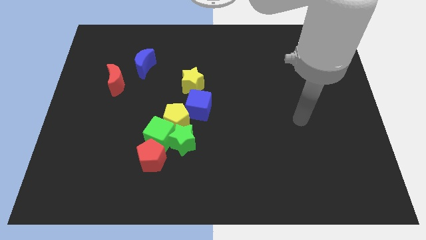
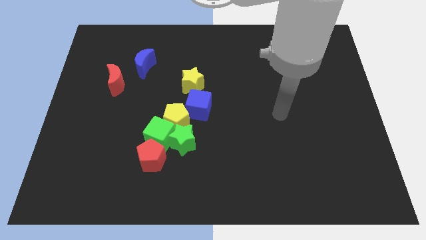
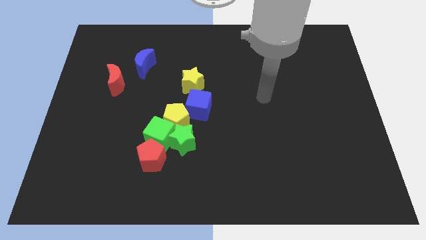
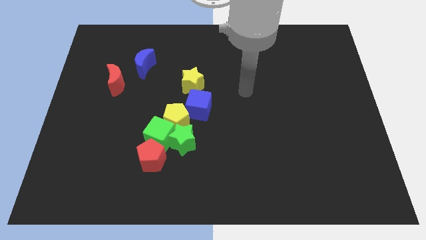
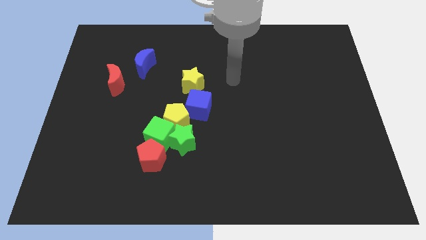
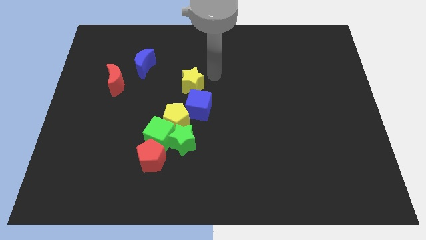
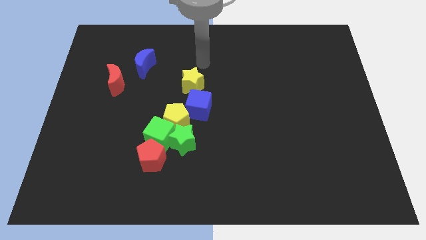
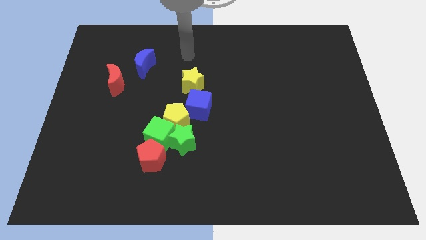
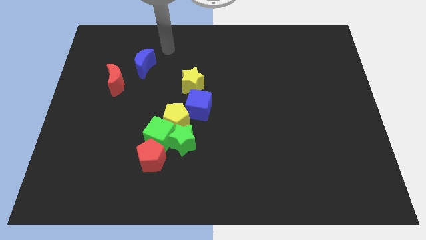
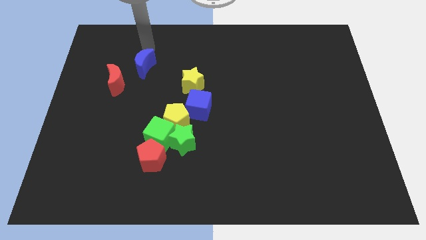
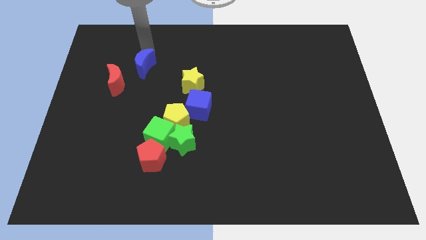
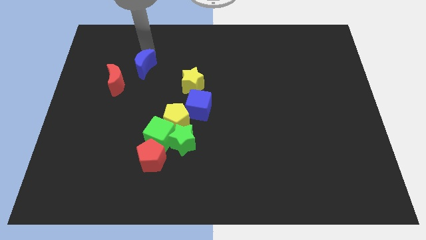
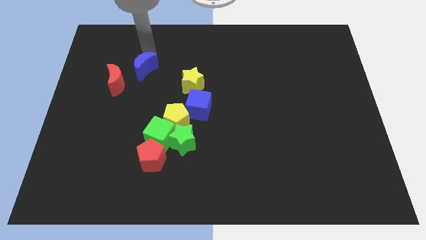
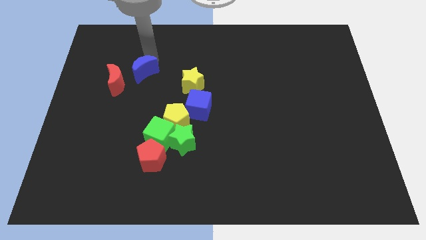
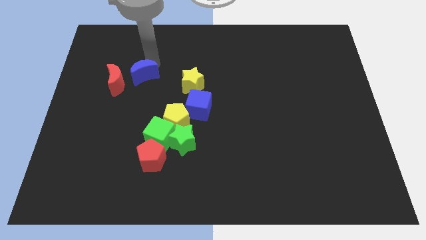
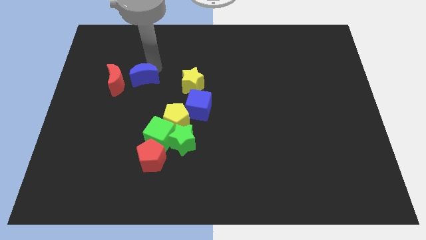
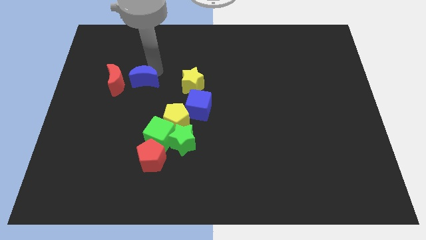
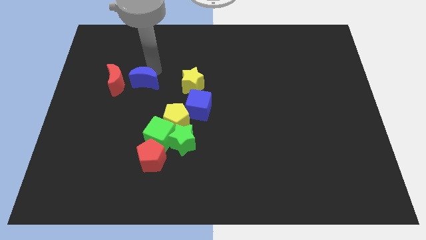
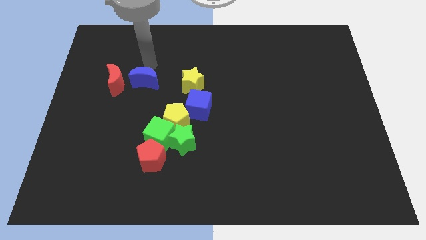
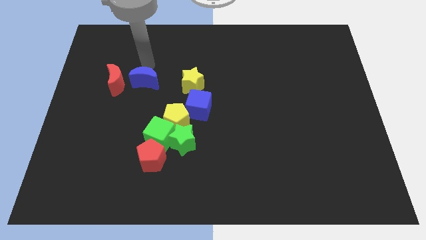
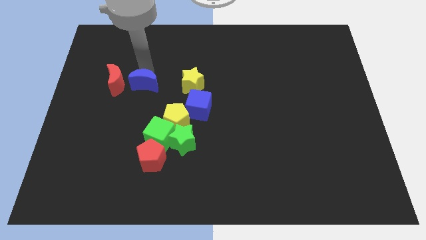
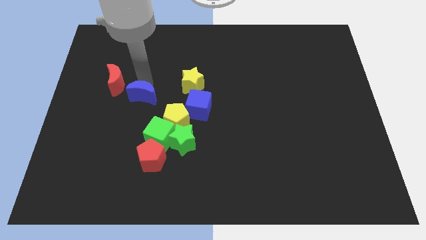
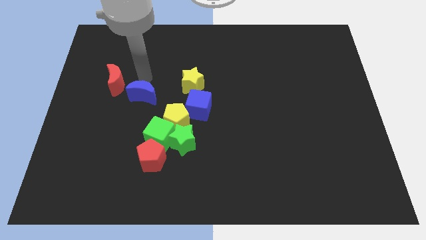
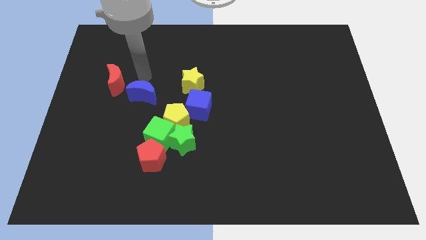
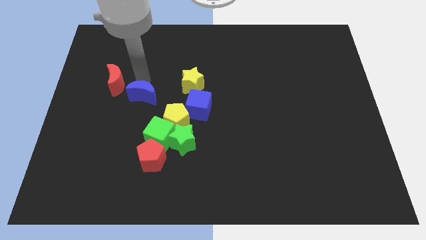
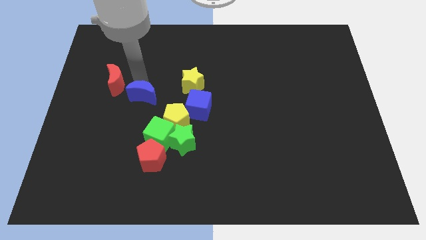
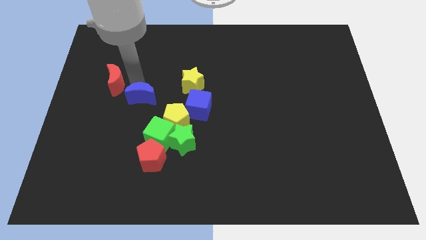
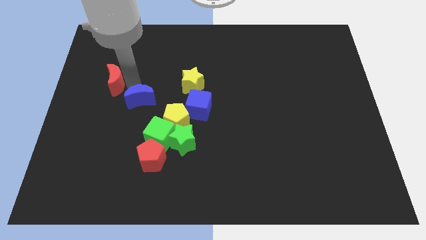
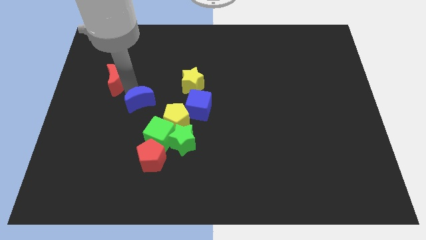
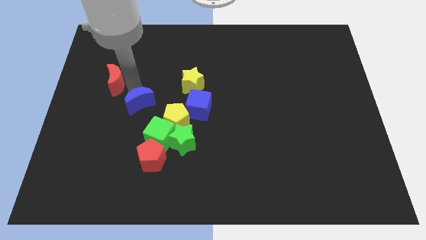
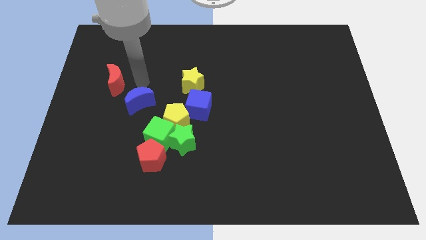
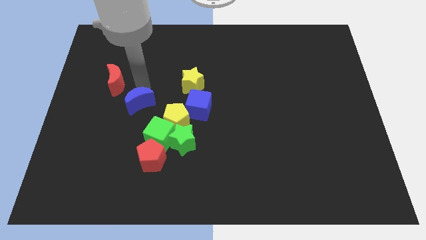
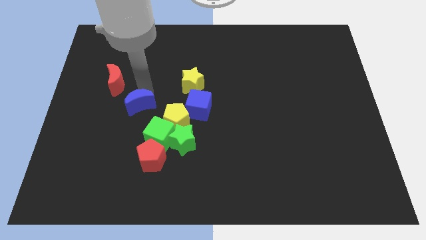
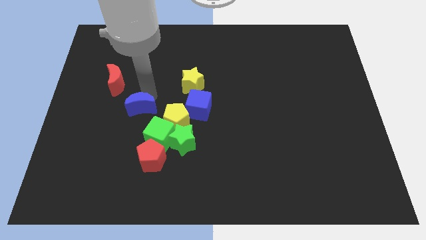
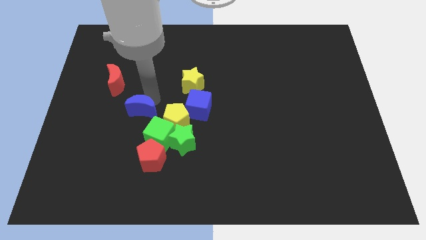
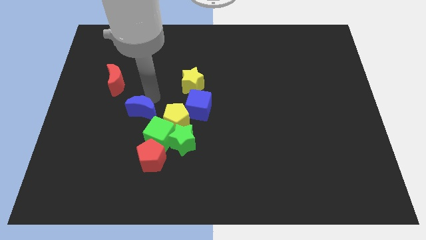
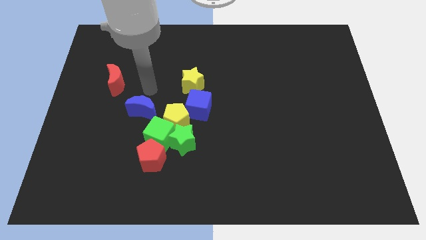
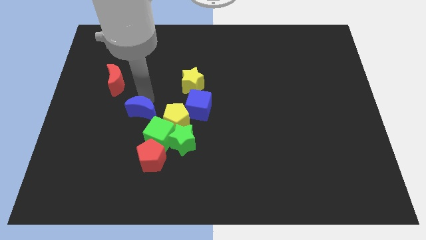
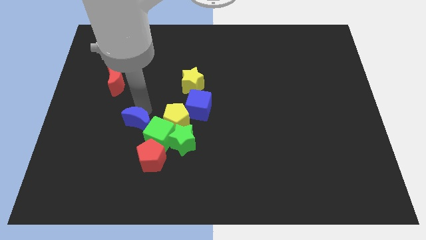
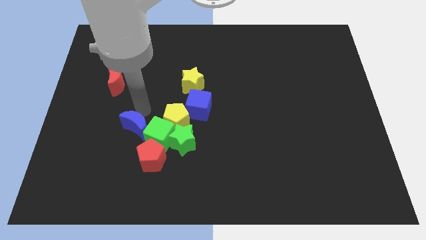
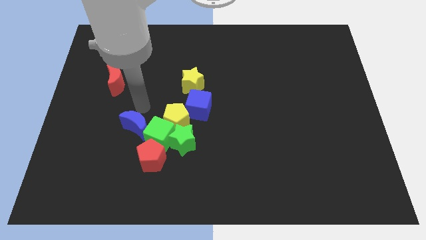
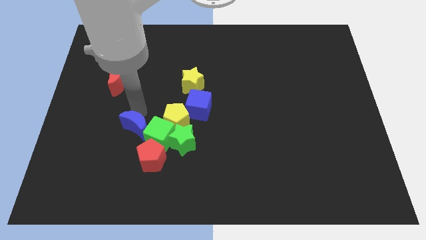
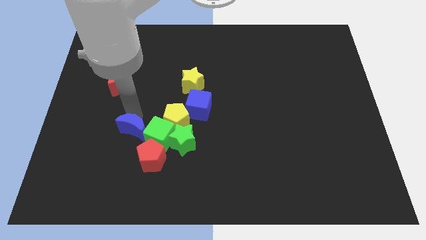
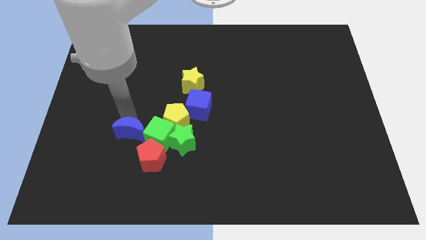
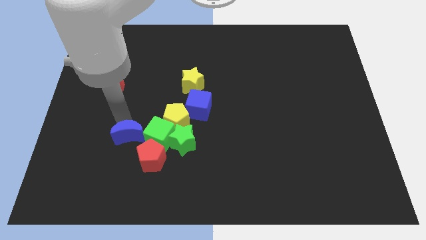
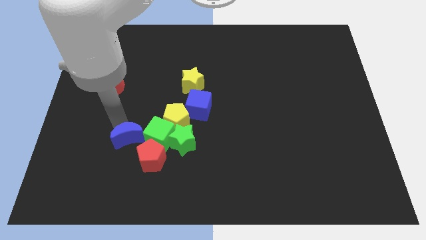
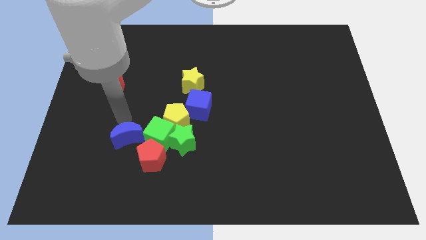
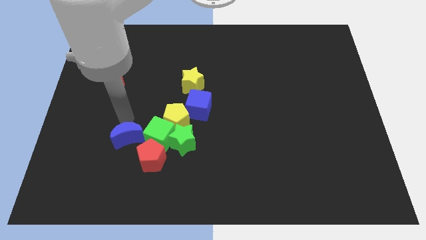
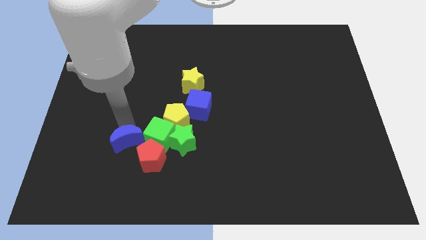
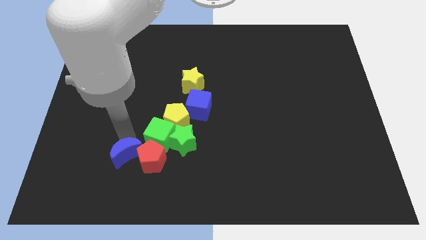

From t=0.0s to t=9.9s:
push the blue moon diagonally down and to the left of the red pentagon

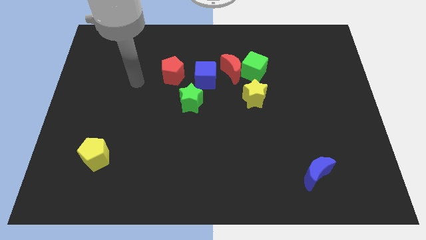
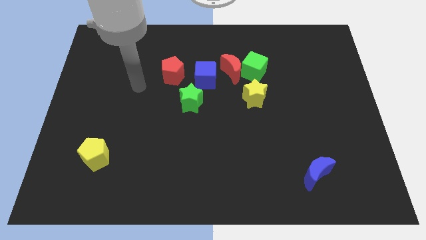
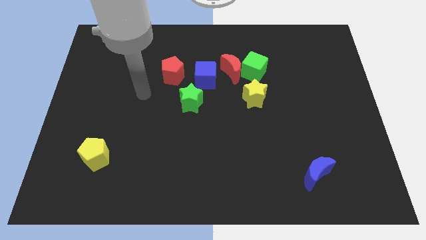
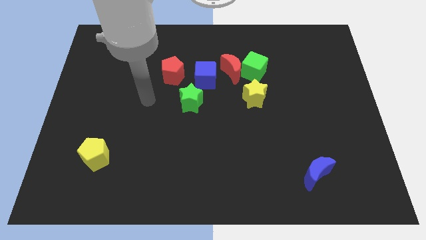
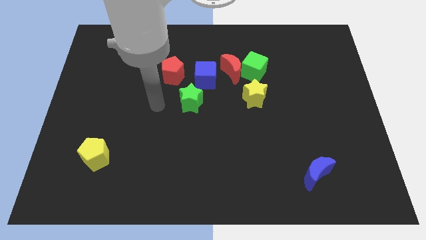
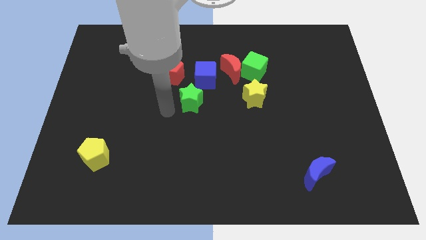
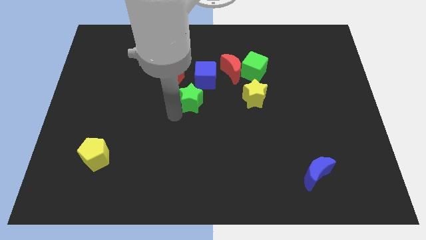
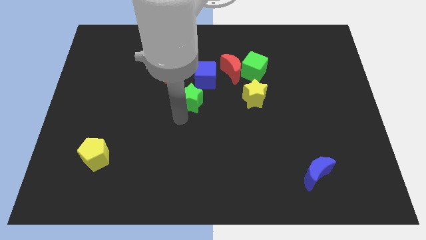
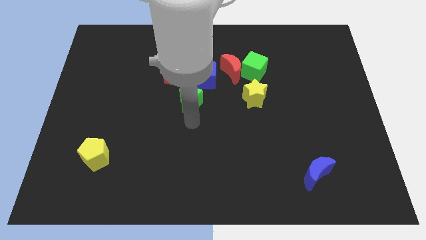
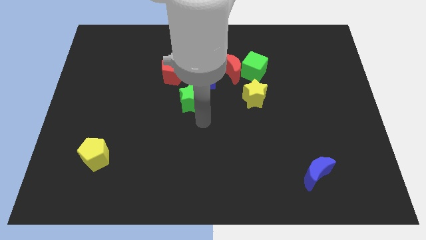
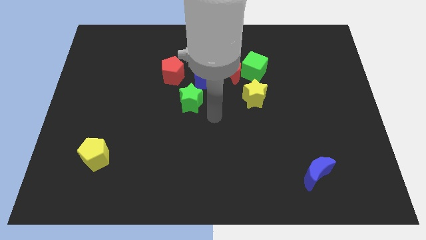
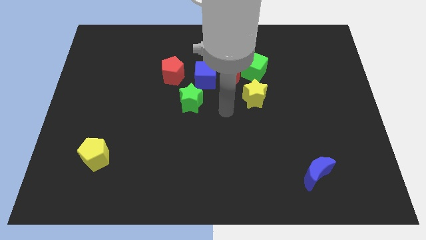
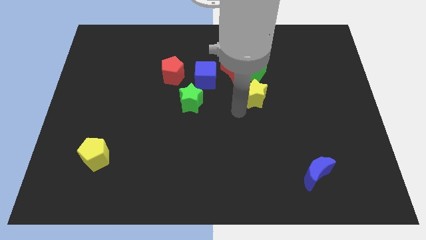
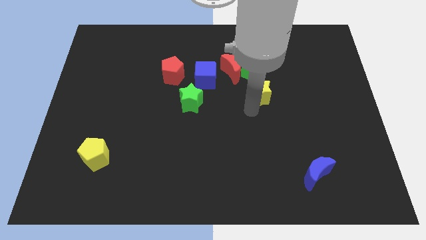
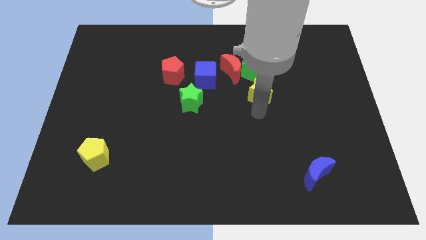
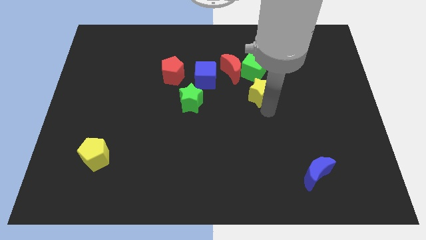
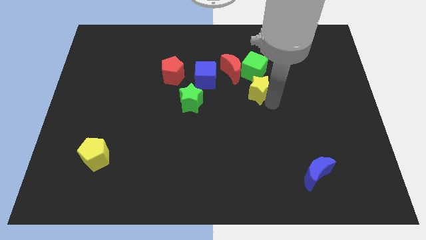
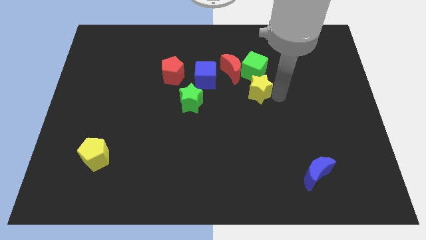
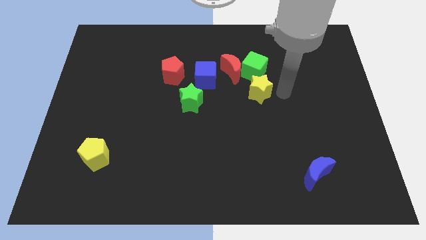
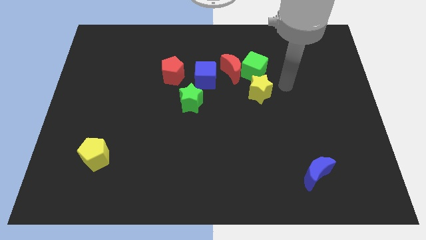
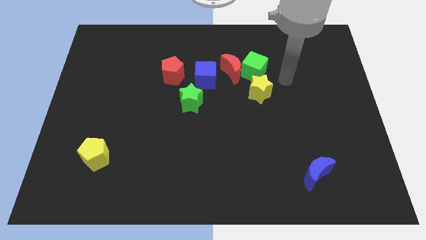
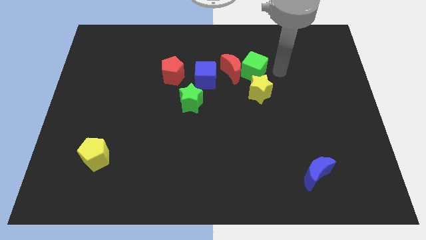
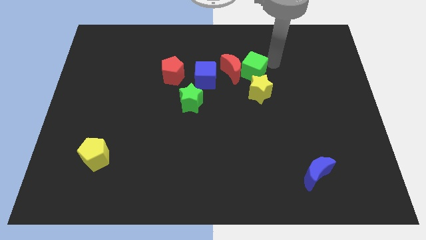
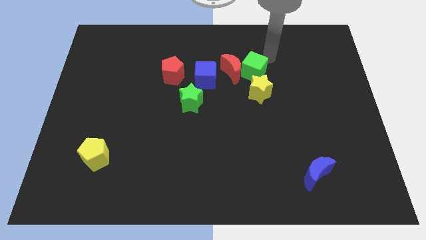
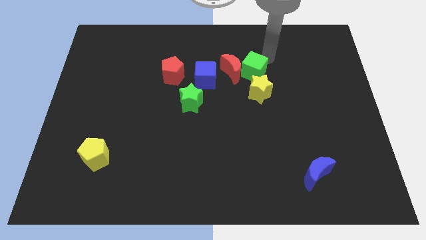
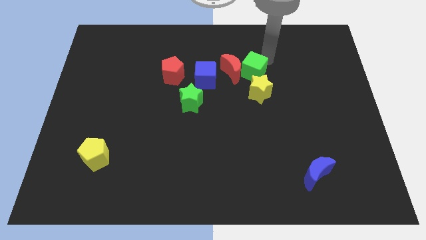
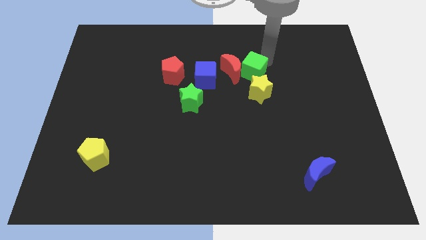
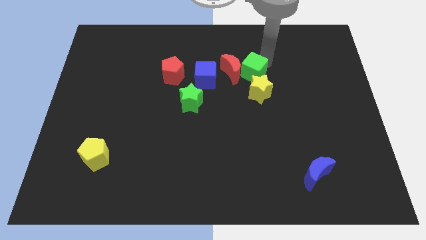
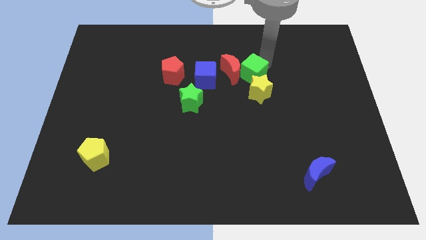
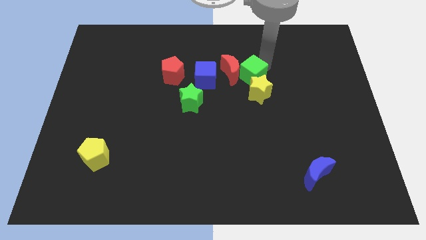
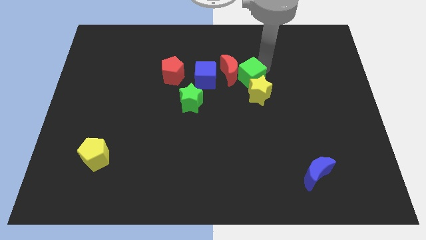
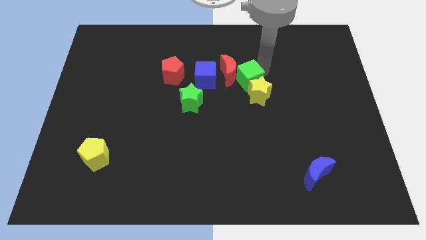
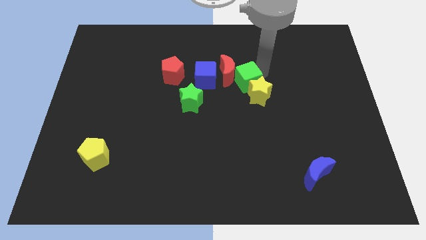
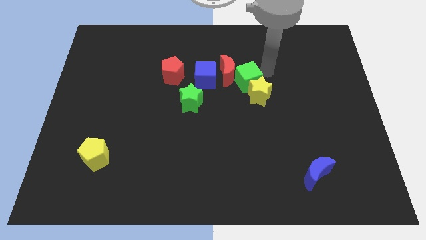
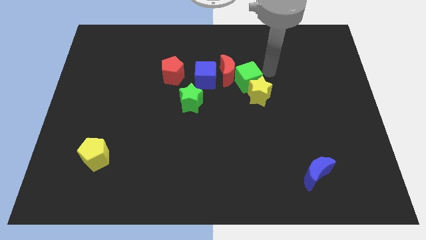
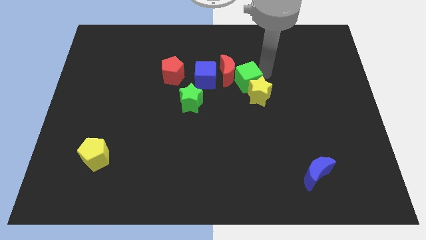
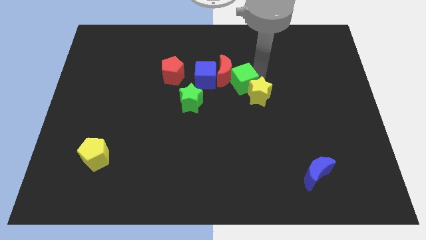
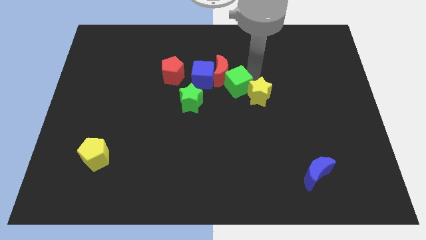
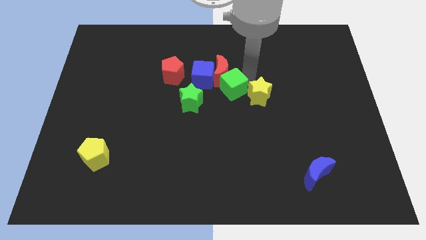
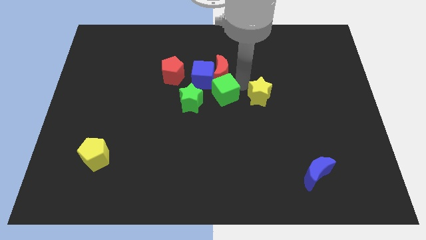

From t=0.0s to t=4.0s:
slide the green cube to the bottom left side of the red moon
